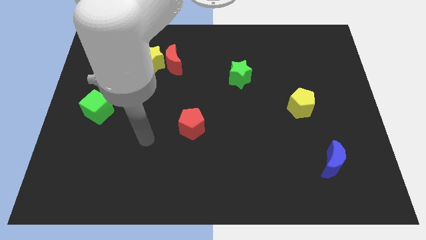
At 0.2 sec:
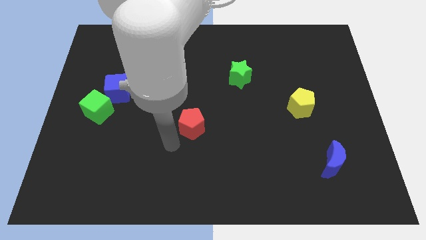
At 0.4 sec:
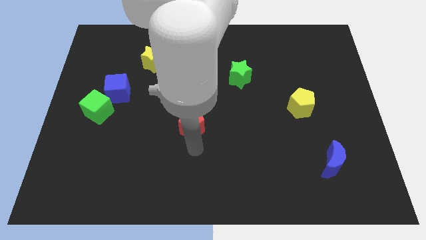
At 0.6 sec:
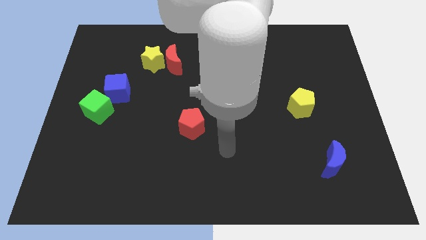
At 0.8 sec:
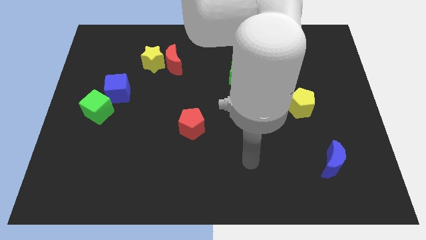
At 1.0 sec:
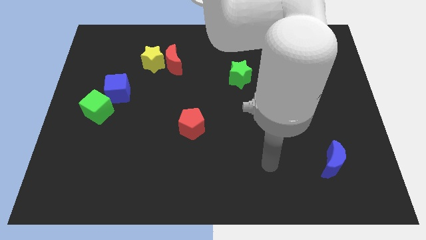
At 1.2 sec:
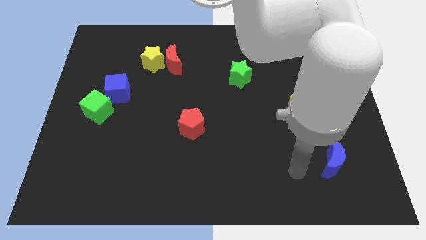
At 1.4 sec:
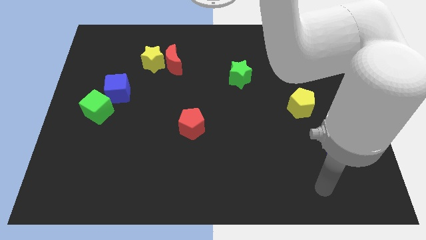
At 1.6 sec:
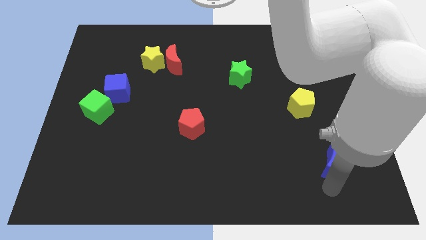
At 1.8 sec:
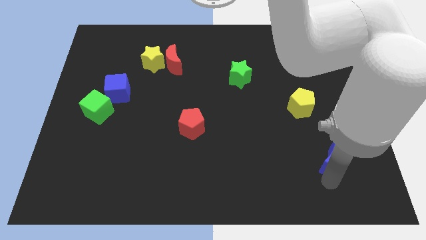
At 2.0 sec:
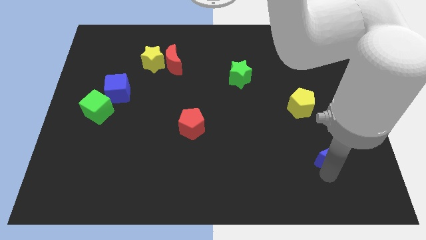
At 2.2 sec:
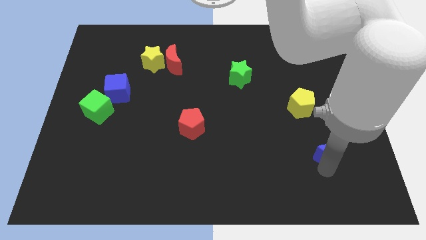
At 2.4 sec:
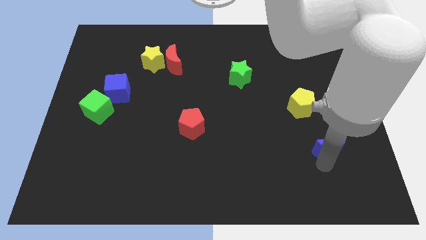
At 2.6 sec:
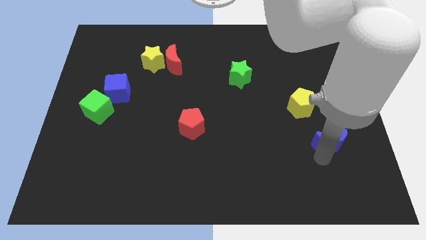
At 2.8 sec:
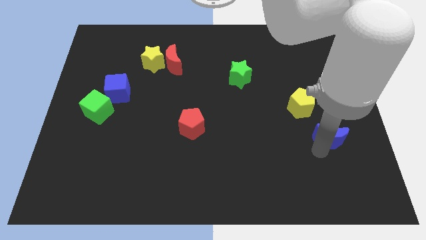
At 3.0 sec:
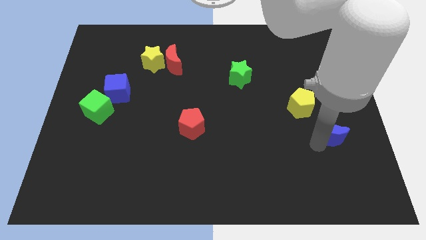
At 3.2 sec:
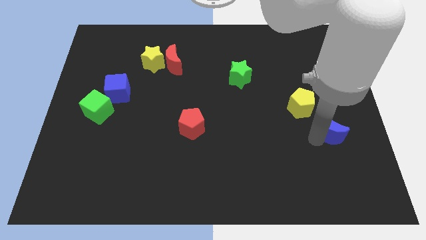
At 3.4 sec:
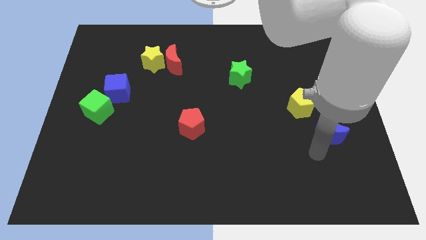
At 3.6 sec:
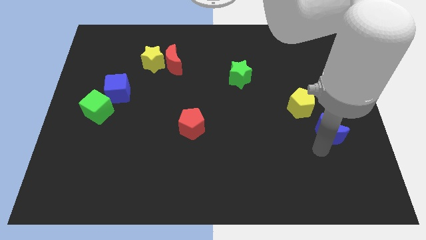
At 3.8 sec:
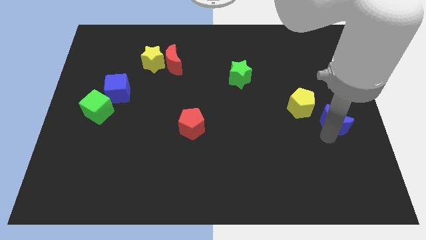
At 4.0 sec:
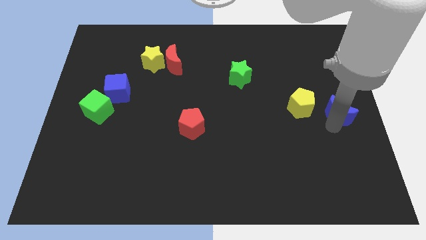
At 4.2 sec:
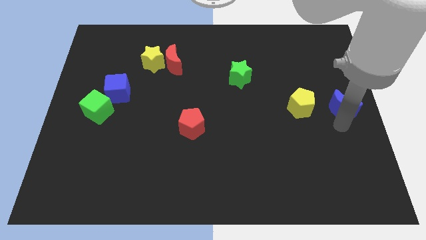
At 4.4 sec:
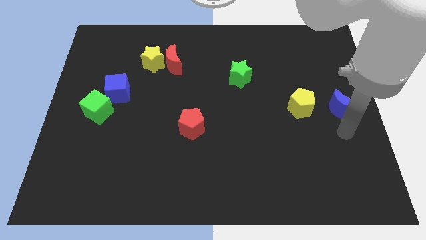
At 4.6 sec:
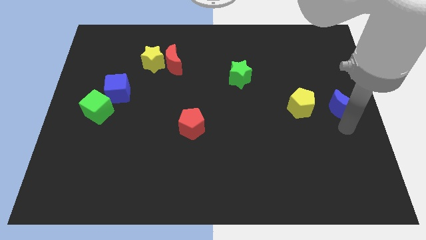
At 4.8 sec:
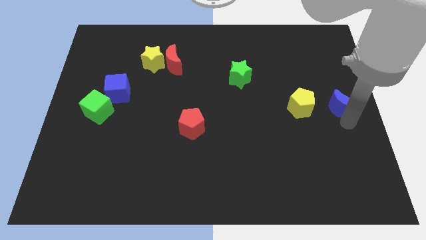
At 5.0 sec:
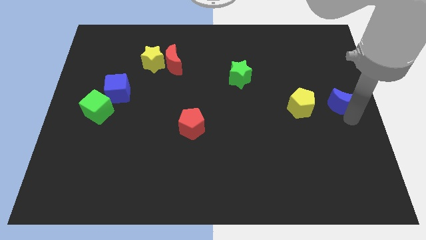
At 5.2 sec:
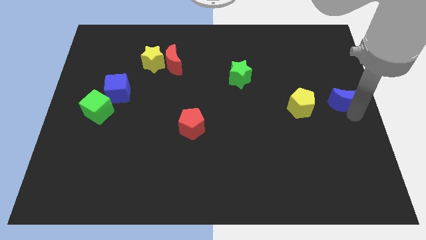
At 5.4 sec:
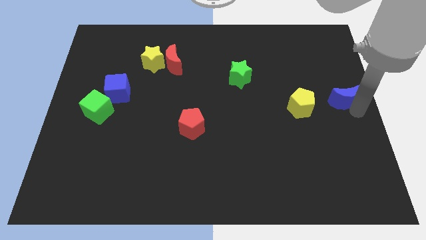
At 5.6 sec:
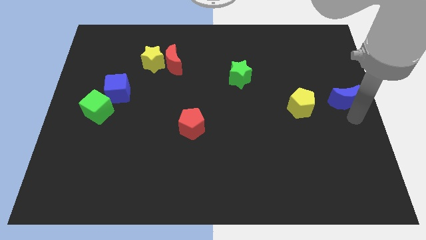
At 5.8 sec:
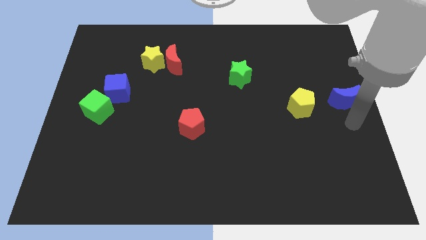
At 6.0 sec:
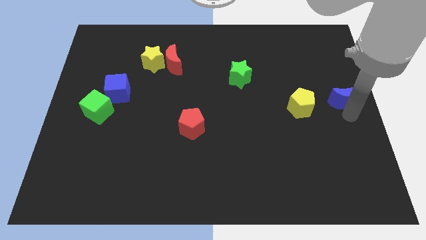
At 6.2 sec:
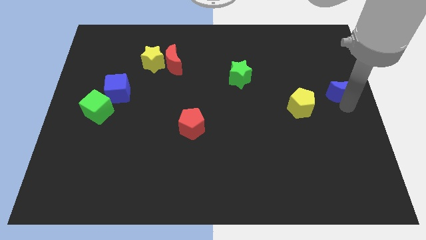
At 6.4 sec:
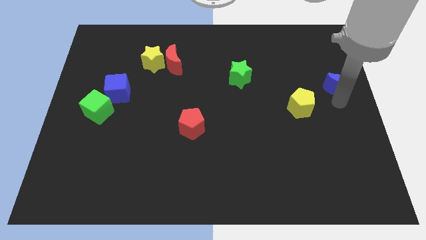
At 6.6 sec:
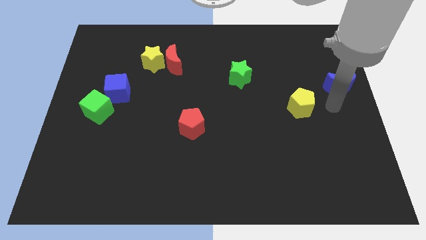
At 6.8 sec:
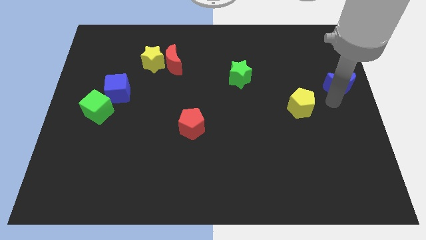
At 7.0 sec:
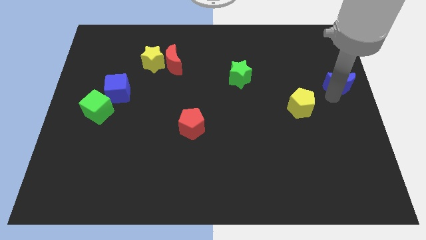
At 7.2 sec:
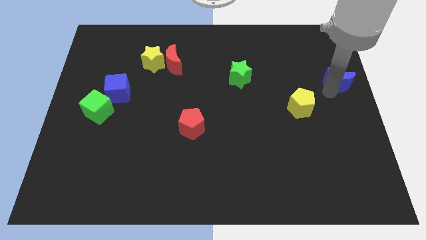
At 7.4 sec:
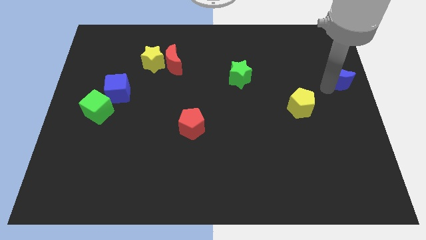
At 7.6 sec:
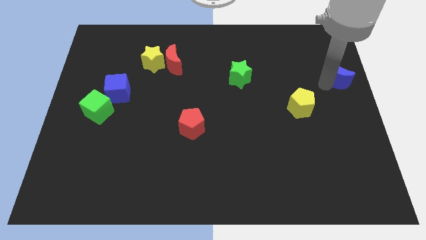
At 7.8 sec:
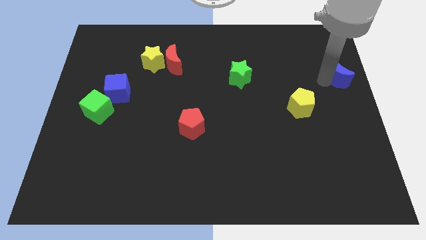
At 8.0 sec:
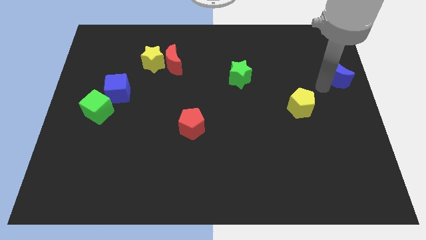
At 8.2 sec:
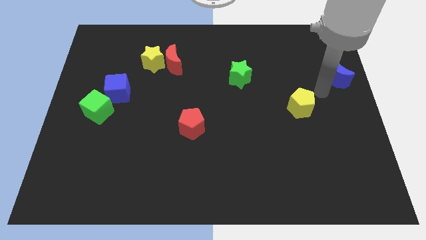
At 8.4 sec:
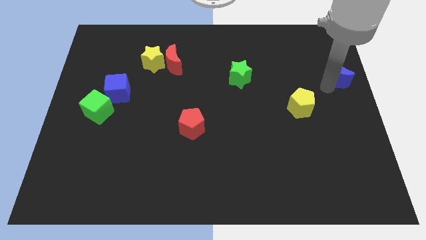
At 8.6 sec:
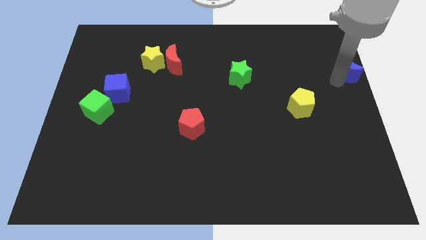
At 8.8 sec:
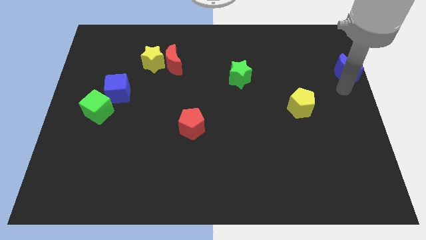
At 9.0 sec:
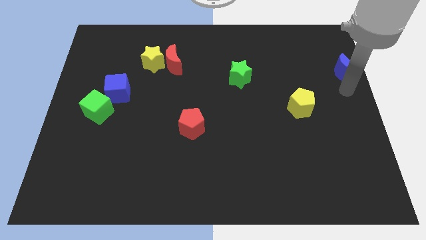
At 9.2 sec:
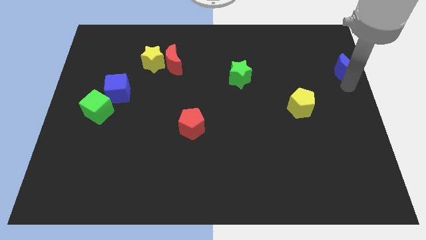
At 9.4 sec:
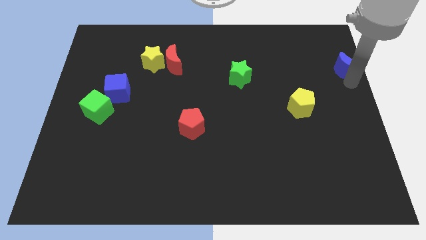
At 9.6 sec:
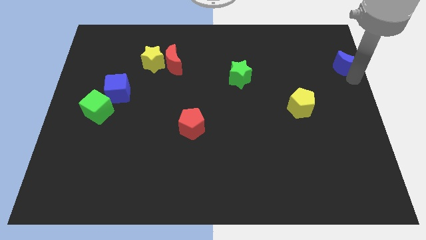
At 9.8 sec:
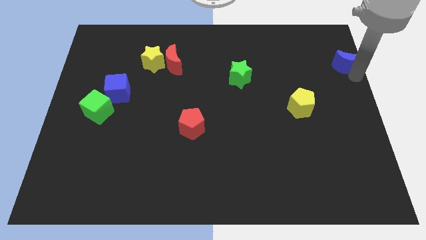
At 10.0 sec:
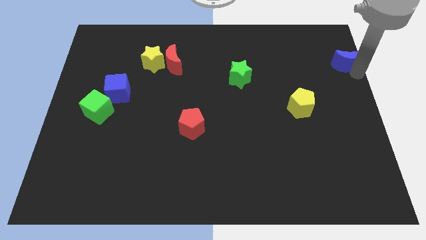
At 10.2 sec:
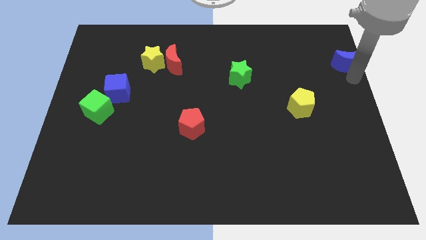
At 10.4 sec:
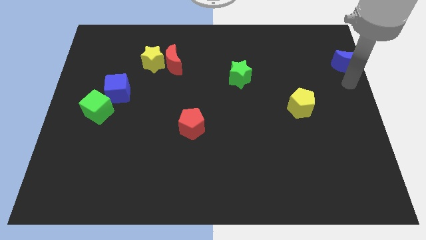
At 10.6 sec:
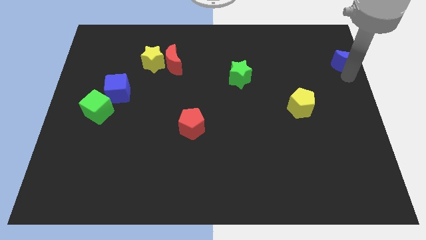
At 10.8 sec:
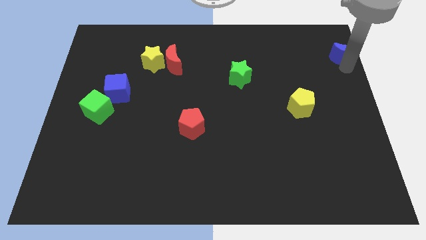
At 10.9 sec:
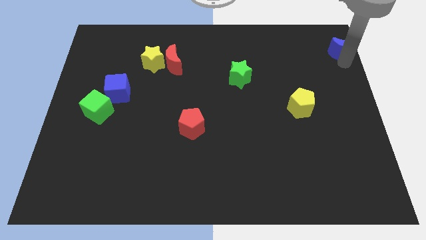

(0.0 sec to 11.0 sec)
put the blue moon to the top right

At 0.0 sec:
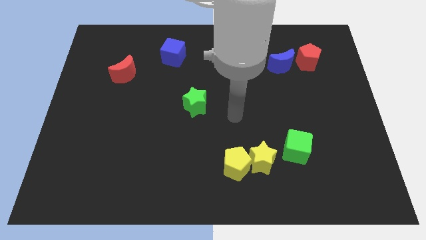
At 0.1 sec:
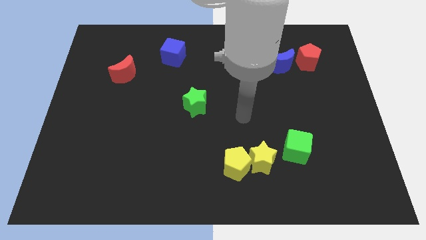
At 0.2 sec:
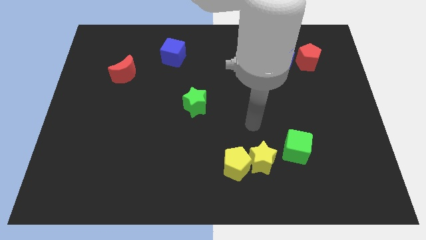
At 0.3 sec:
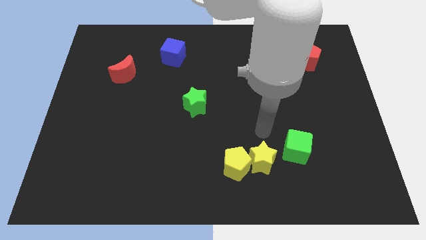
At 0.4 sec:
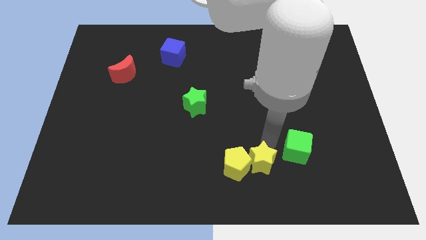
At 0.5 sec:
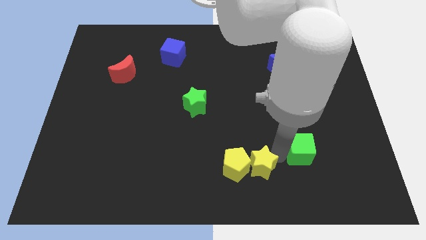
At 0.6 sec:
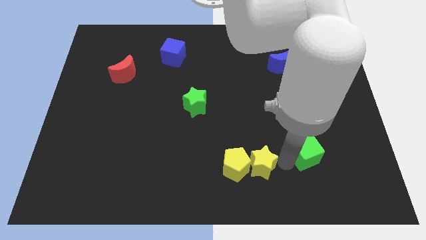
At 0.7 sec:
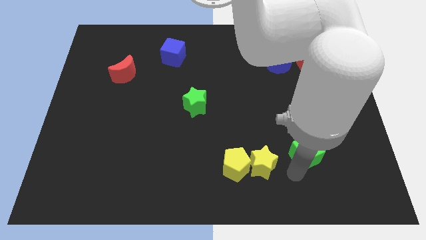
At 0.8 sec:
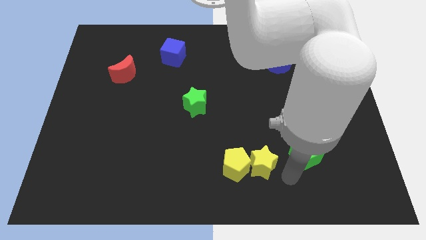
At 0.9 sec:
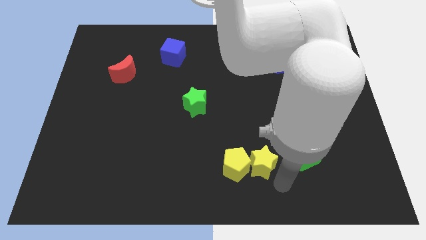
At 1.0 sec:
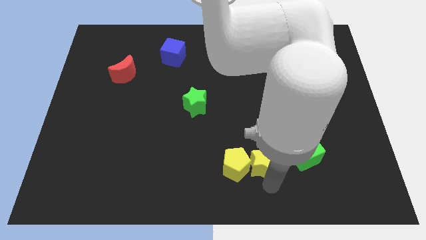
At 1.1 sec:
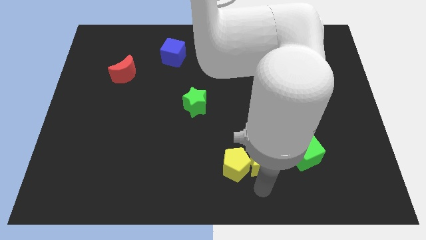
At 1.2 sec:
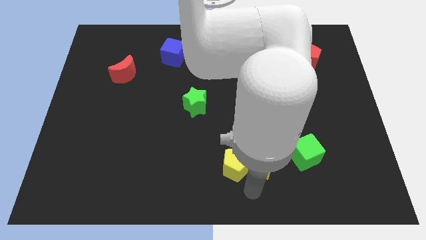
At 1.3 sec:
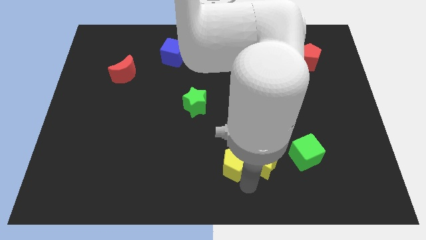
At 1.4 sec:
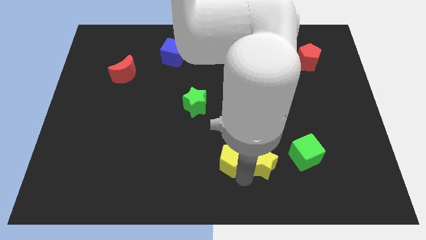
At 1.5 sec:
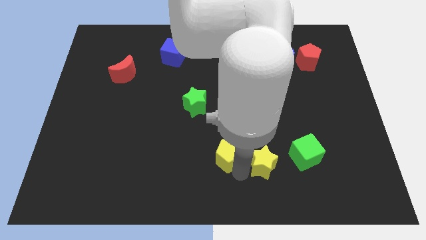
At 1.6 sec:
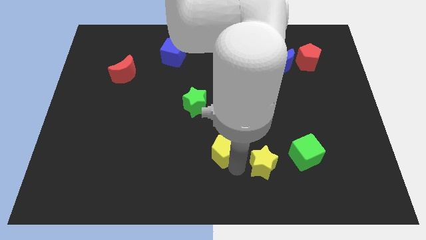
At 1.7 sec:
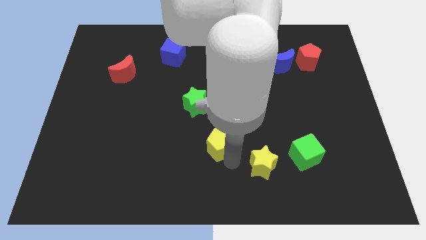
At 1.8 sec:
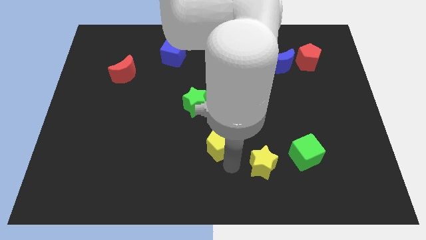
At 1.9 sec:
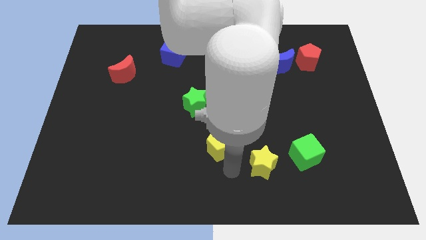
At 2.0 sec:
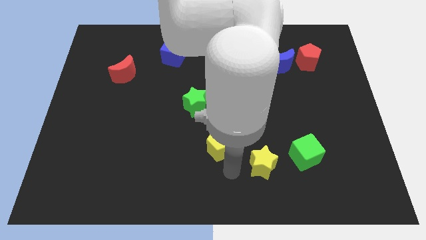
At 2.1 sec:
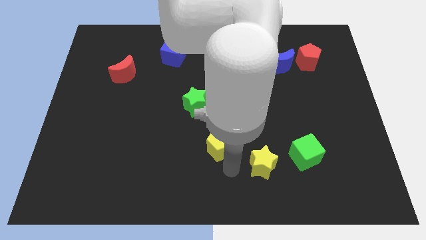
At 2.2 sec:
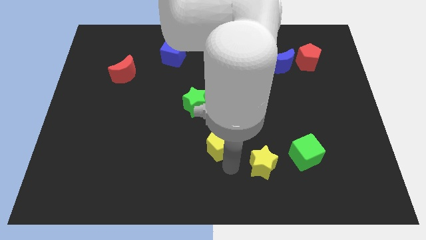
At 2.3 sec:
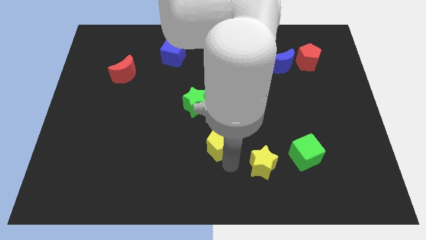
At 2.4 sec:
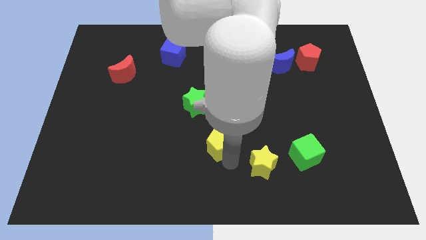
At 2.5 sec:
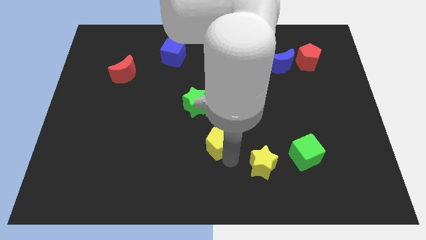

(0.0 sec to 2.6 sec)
push the yellow pentagon to the center
